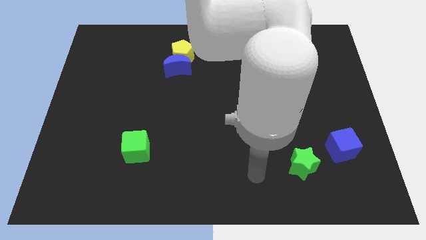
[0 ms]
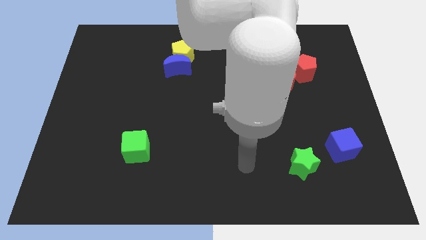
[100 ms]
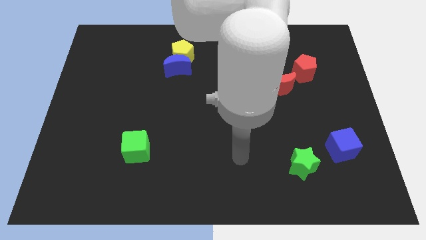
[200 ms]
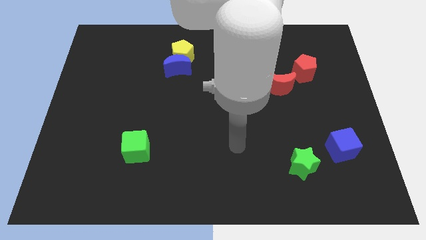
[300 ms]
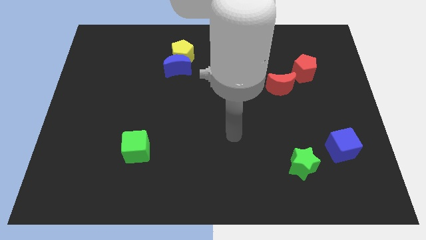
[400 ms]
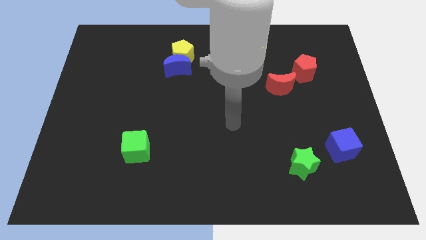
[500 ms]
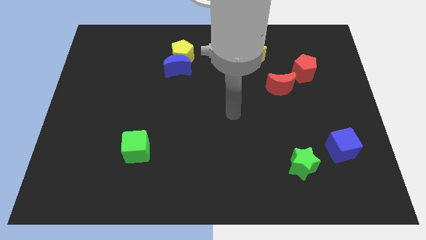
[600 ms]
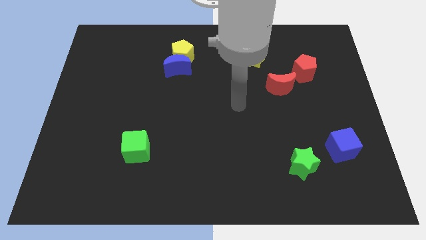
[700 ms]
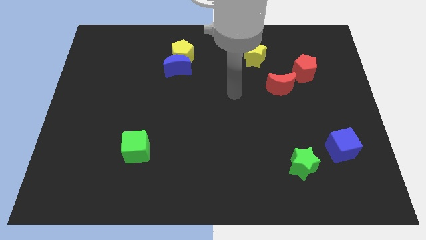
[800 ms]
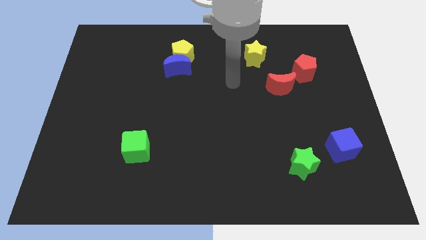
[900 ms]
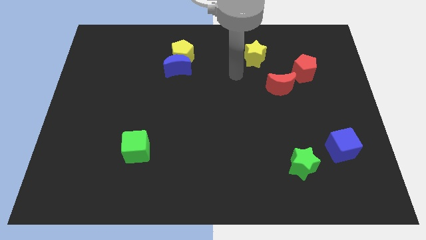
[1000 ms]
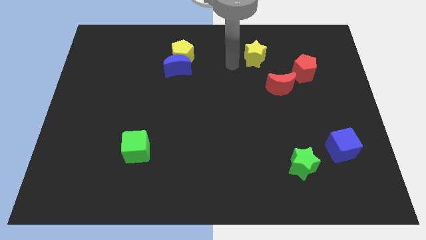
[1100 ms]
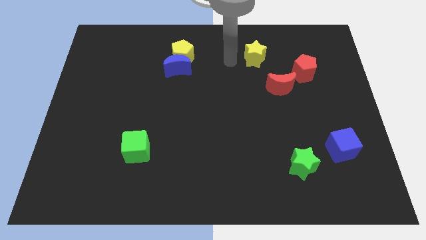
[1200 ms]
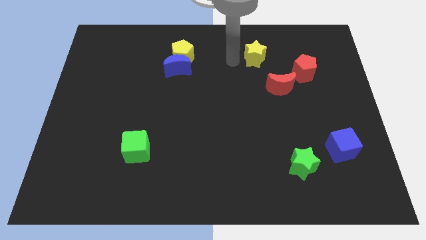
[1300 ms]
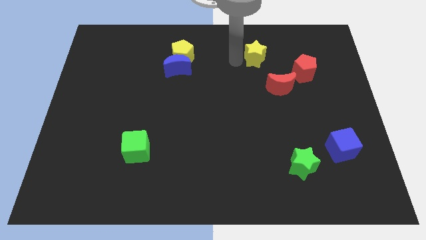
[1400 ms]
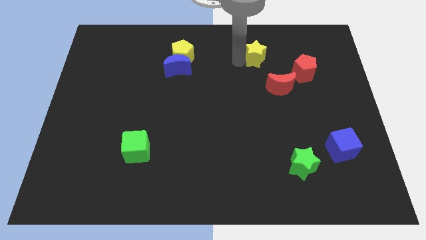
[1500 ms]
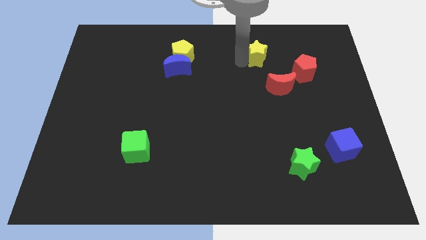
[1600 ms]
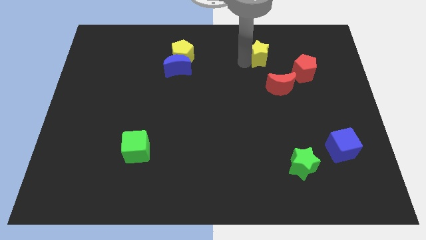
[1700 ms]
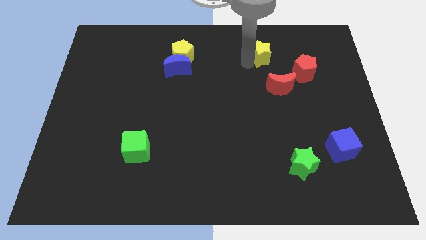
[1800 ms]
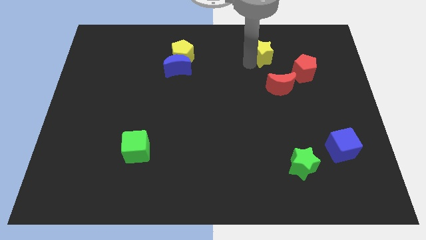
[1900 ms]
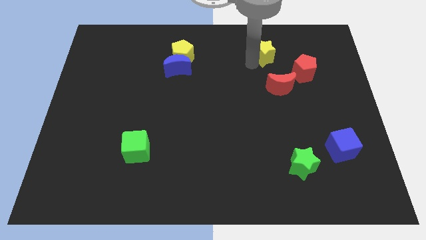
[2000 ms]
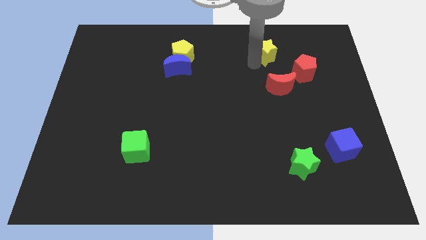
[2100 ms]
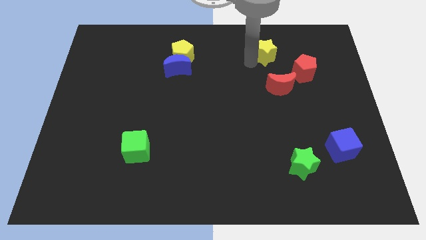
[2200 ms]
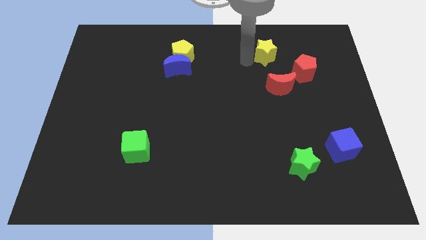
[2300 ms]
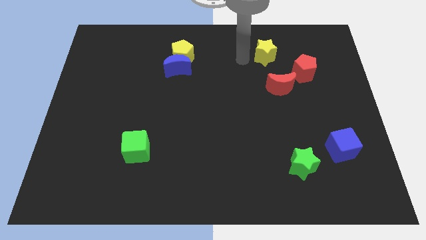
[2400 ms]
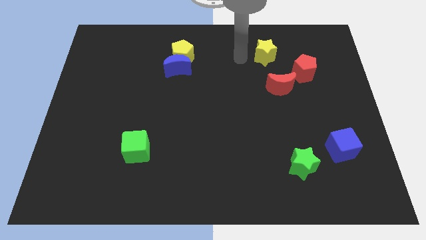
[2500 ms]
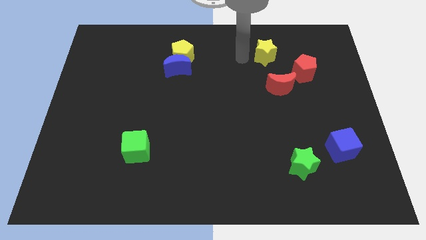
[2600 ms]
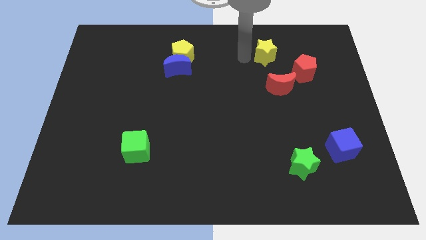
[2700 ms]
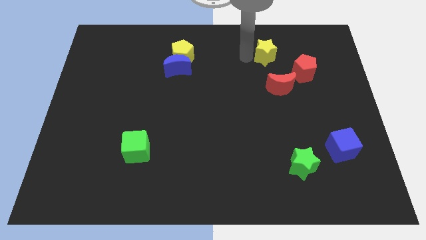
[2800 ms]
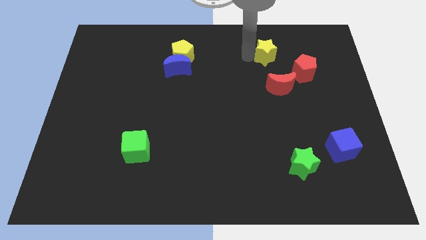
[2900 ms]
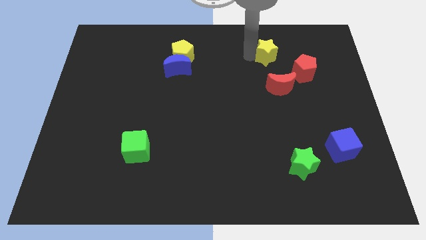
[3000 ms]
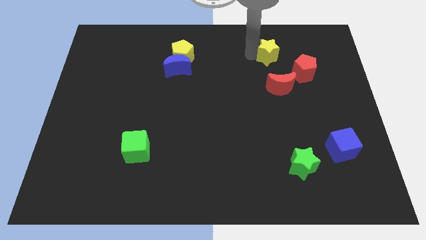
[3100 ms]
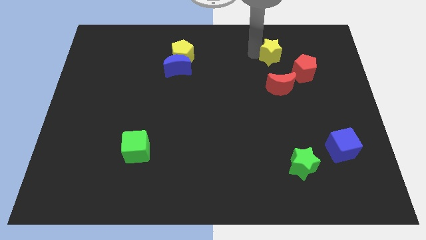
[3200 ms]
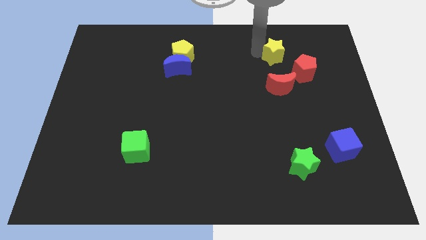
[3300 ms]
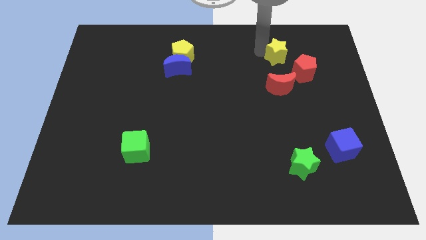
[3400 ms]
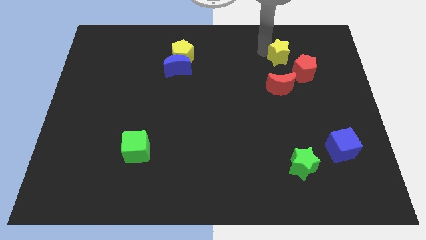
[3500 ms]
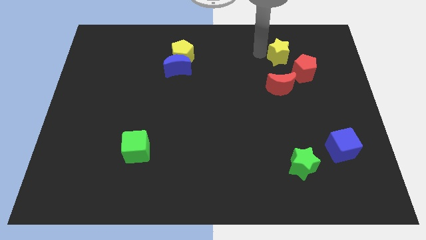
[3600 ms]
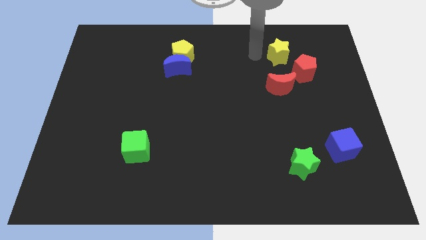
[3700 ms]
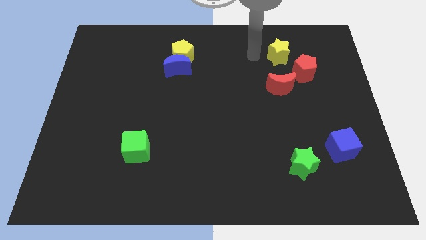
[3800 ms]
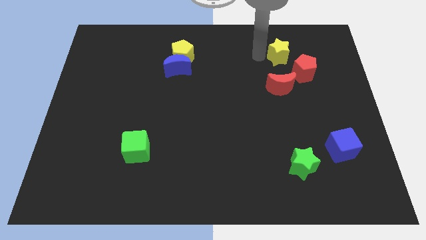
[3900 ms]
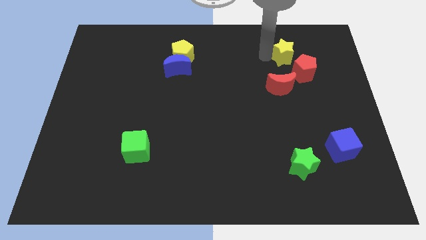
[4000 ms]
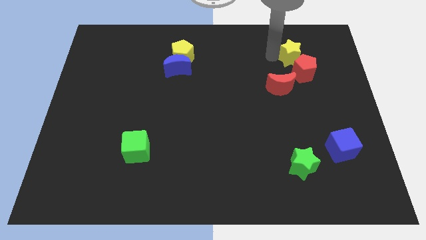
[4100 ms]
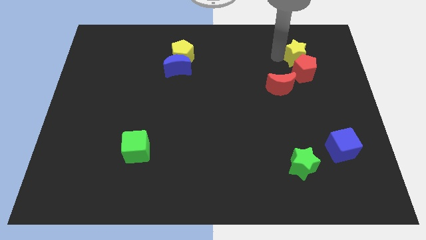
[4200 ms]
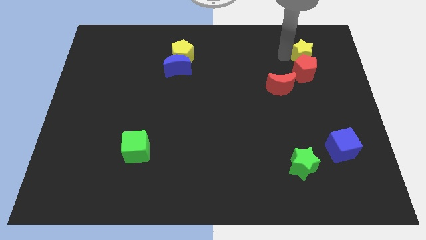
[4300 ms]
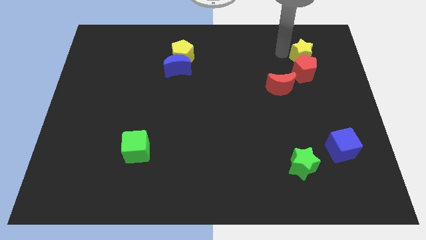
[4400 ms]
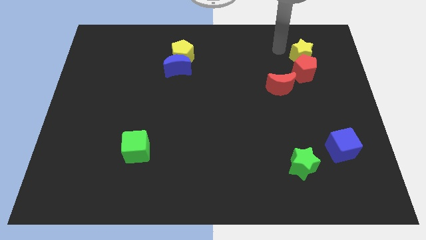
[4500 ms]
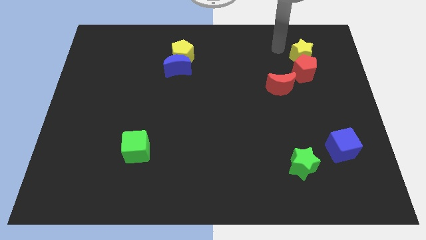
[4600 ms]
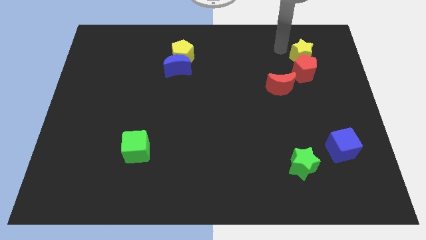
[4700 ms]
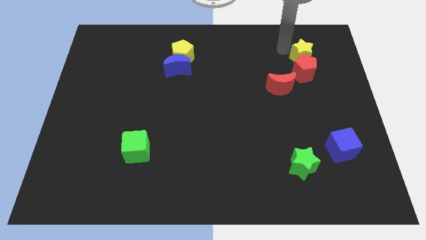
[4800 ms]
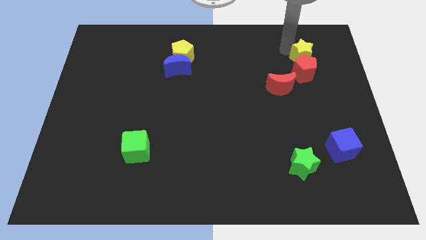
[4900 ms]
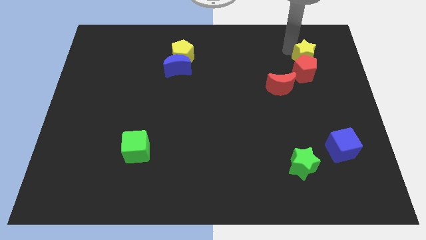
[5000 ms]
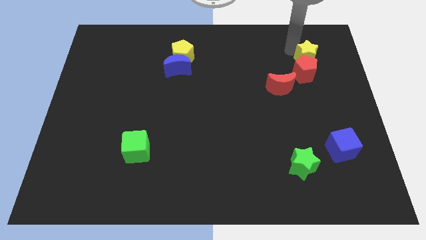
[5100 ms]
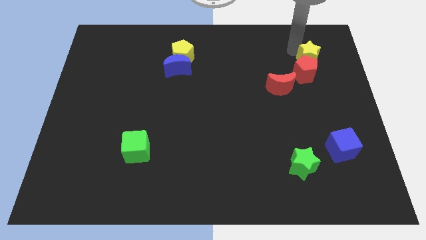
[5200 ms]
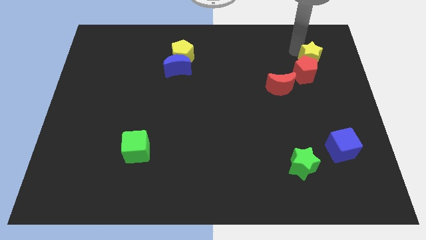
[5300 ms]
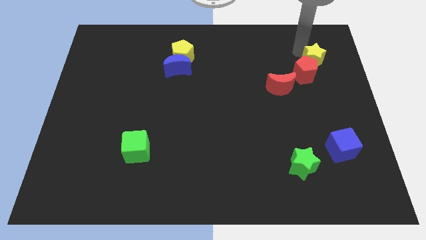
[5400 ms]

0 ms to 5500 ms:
slightly push the yellow star down and then right

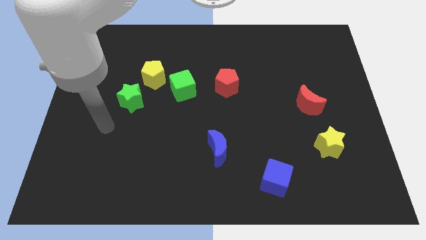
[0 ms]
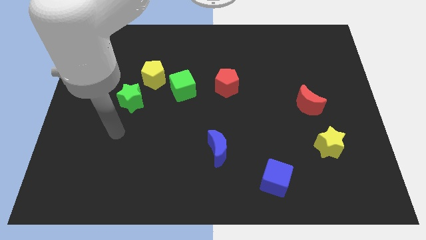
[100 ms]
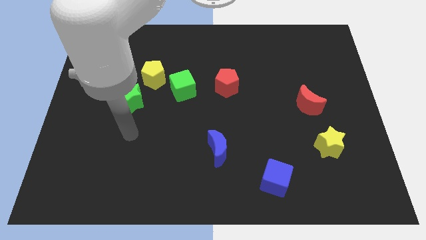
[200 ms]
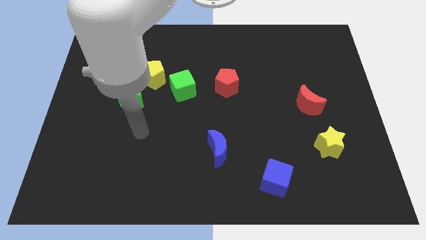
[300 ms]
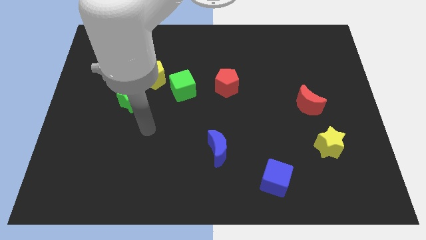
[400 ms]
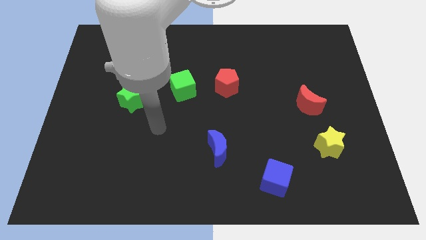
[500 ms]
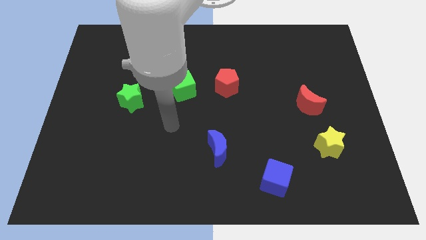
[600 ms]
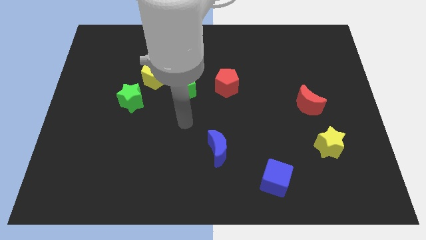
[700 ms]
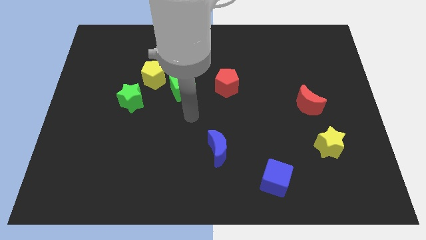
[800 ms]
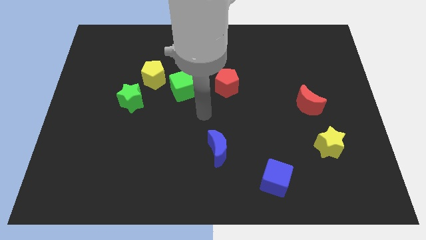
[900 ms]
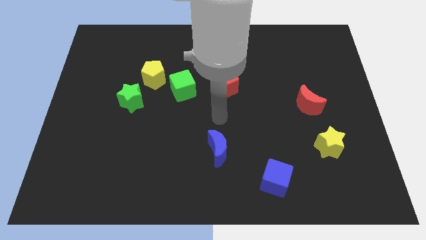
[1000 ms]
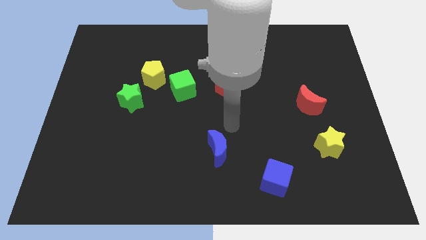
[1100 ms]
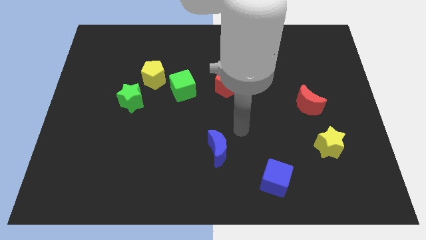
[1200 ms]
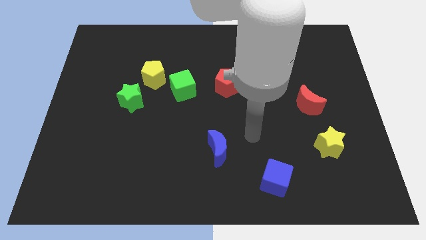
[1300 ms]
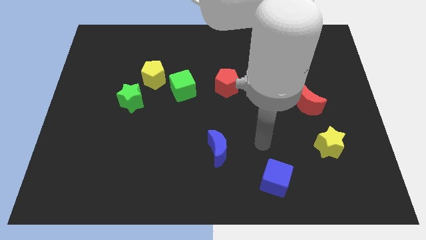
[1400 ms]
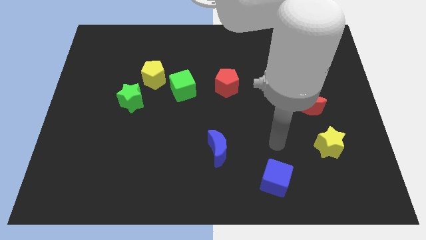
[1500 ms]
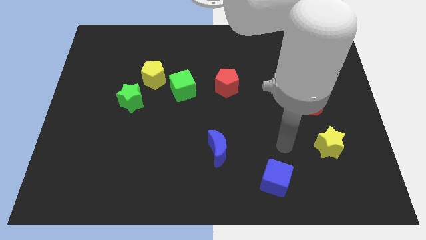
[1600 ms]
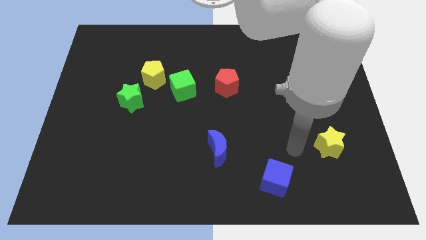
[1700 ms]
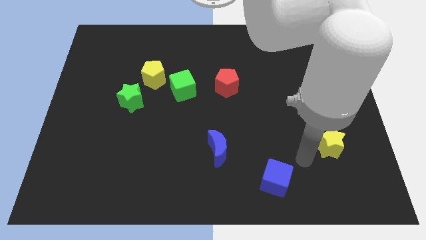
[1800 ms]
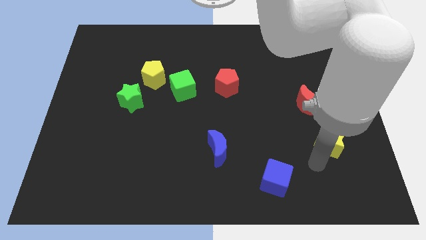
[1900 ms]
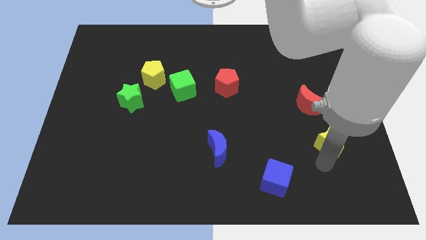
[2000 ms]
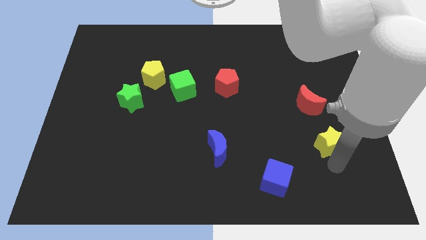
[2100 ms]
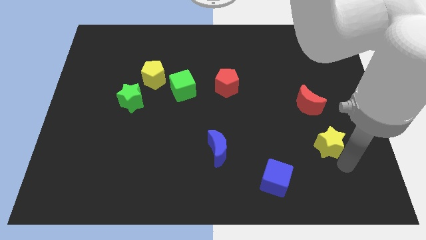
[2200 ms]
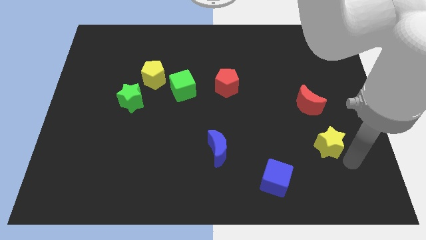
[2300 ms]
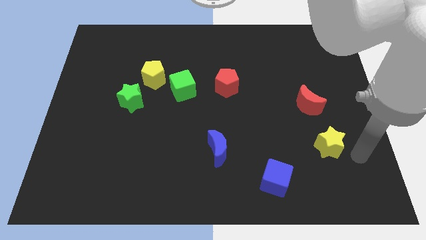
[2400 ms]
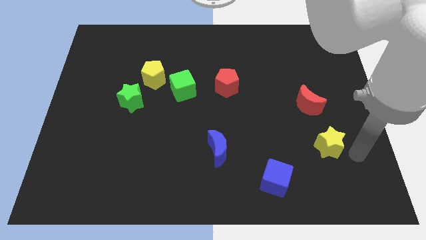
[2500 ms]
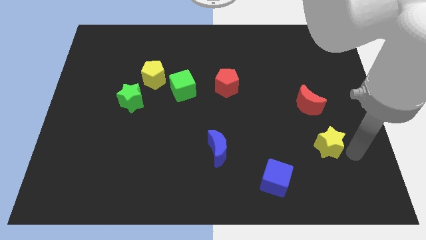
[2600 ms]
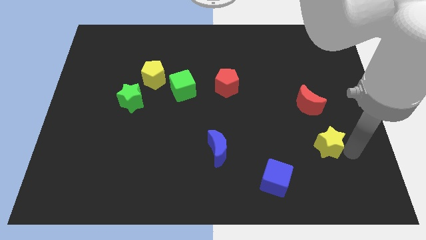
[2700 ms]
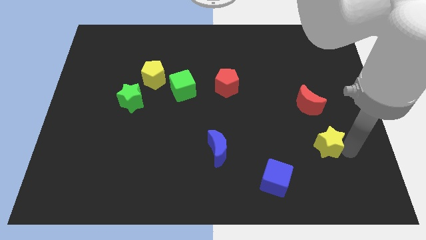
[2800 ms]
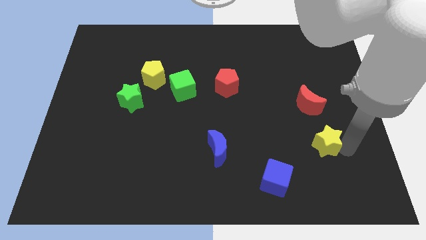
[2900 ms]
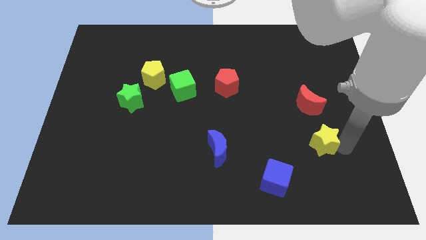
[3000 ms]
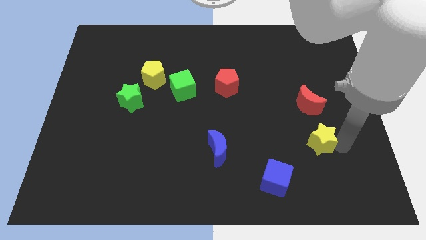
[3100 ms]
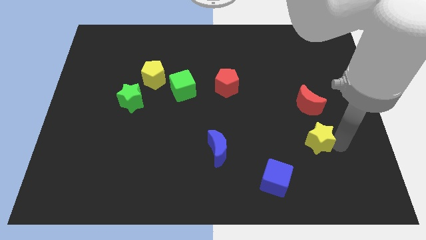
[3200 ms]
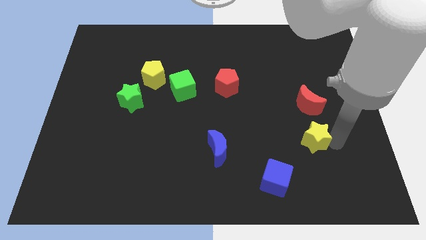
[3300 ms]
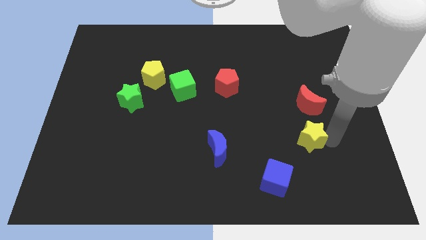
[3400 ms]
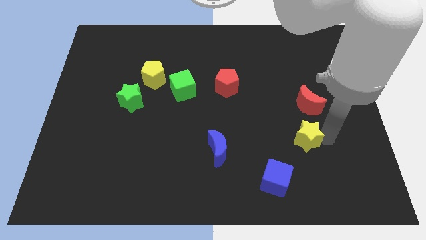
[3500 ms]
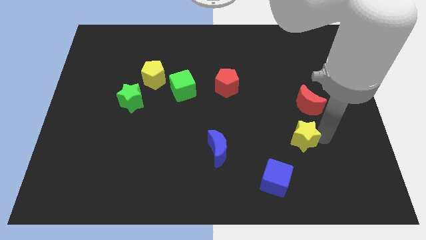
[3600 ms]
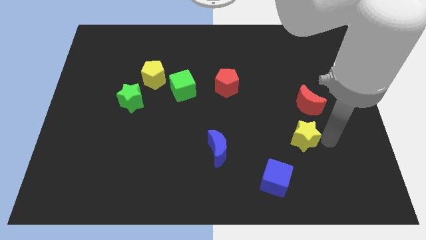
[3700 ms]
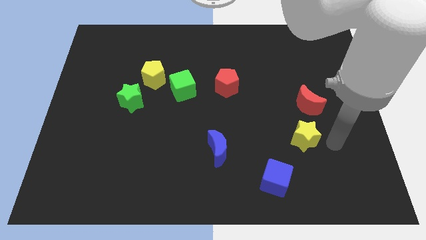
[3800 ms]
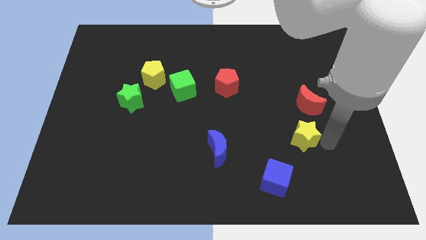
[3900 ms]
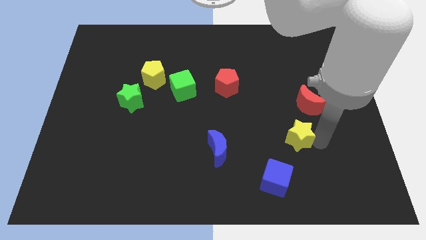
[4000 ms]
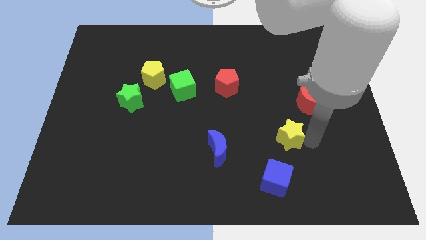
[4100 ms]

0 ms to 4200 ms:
slightly push the yellow star to the left
